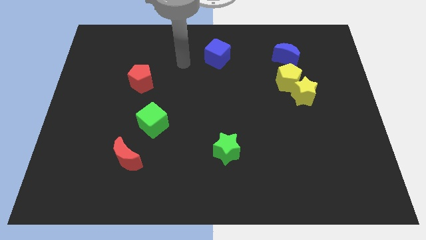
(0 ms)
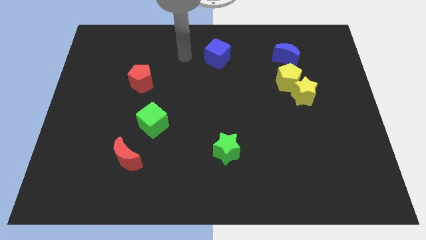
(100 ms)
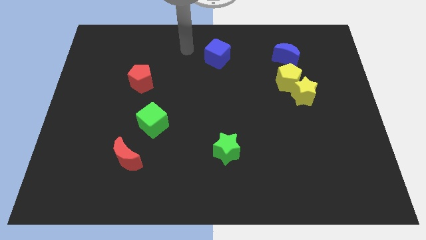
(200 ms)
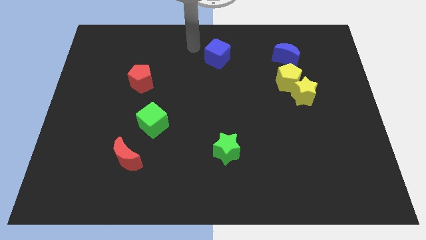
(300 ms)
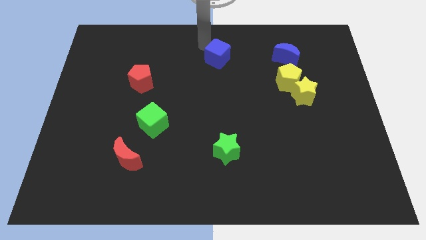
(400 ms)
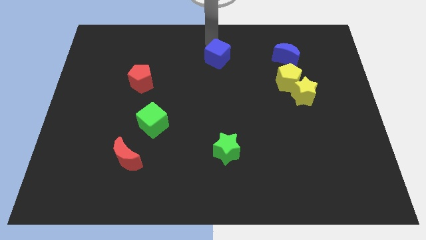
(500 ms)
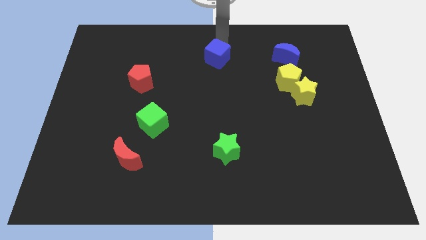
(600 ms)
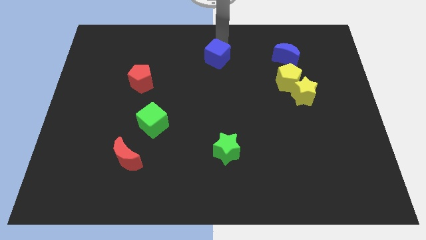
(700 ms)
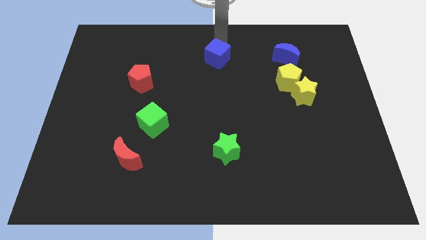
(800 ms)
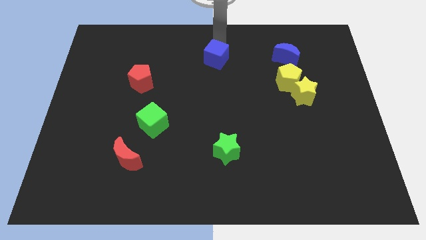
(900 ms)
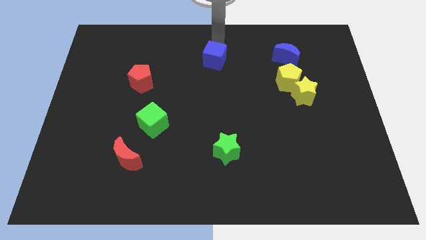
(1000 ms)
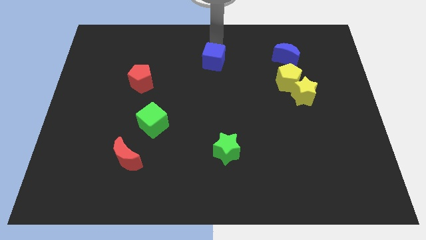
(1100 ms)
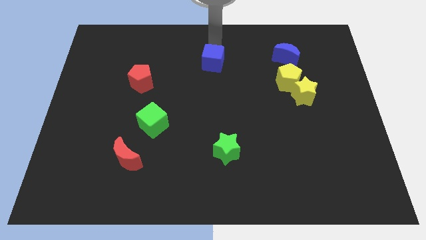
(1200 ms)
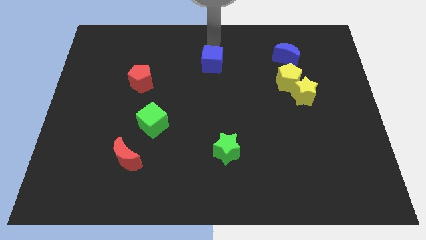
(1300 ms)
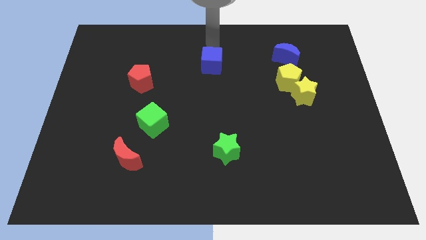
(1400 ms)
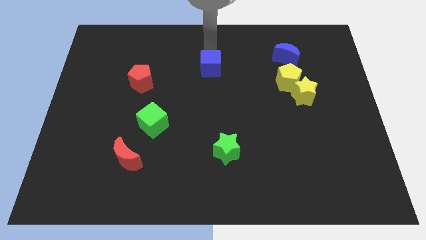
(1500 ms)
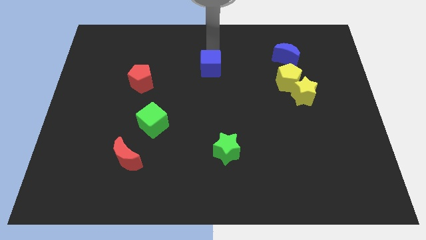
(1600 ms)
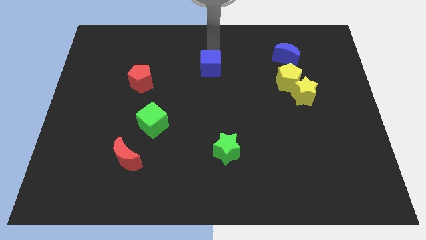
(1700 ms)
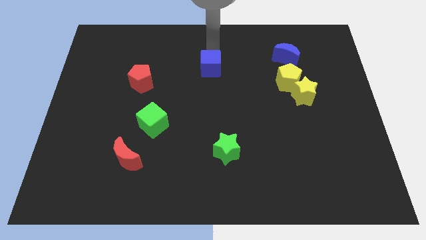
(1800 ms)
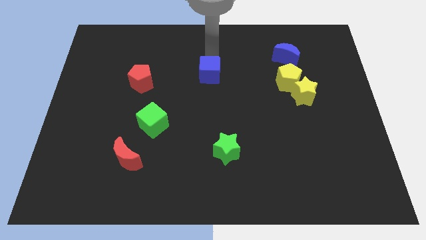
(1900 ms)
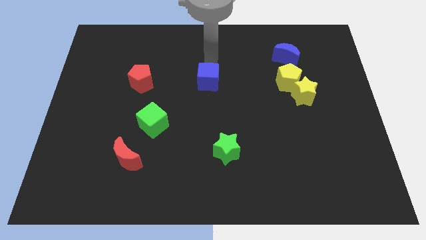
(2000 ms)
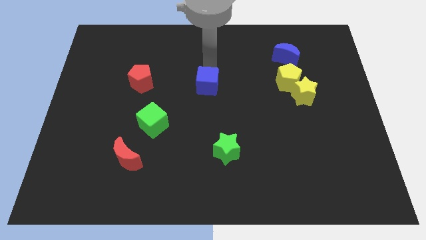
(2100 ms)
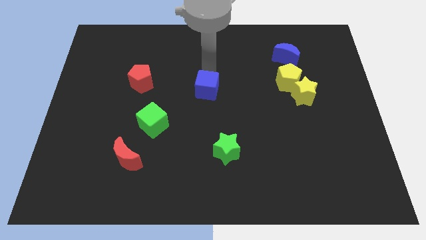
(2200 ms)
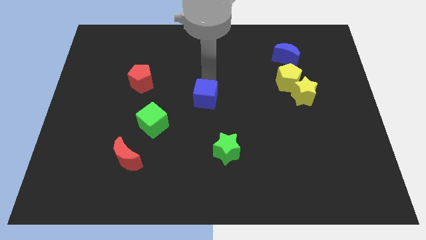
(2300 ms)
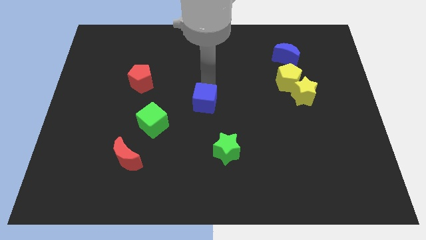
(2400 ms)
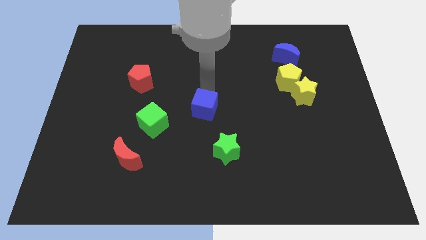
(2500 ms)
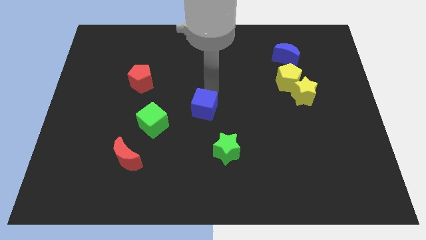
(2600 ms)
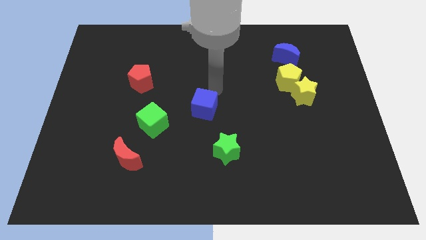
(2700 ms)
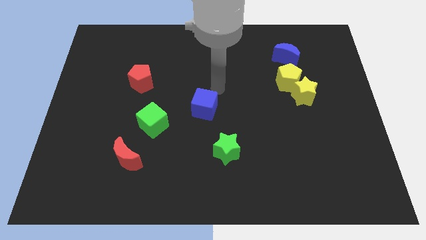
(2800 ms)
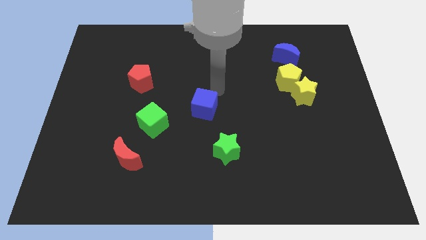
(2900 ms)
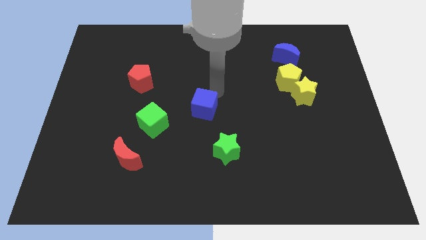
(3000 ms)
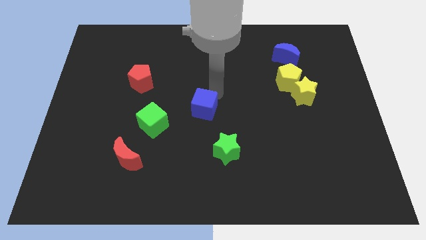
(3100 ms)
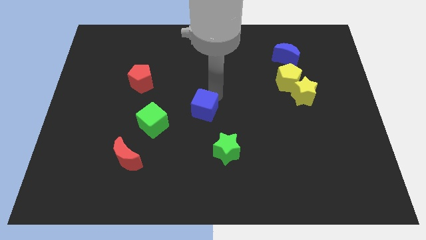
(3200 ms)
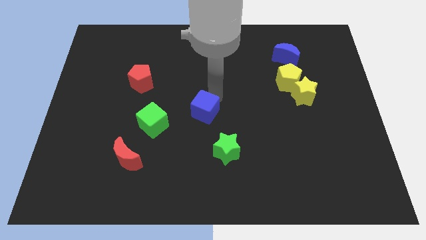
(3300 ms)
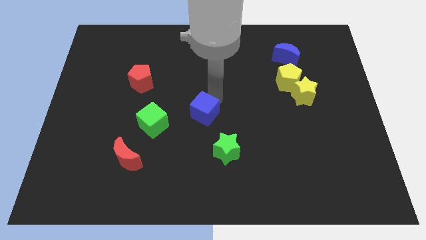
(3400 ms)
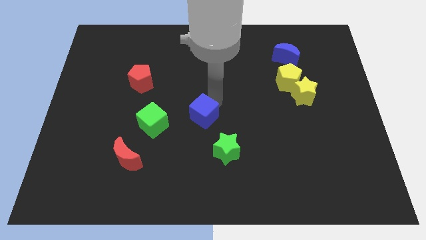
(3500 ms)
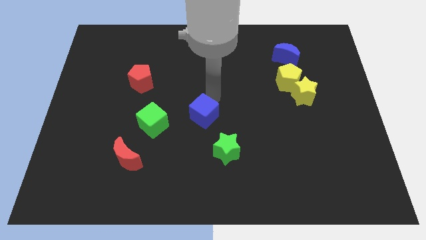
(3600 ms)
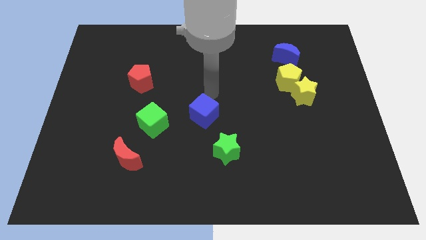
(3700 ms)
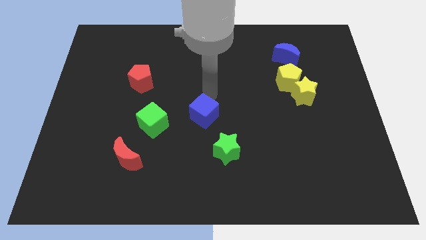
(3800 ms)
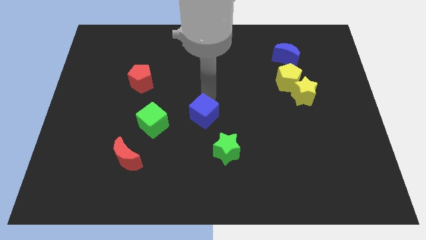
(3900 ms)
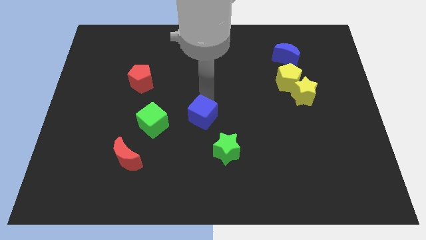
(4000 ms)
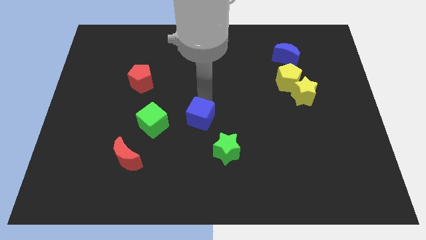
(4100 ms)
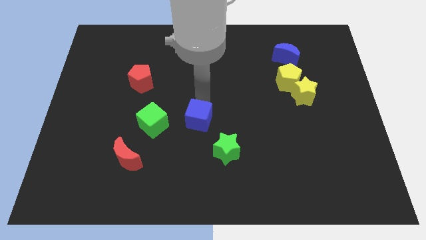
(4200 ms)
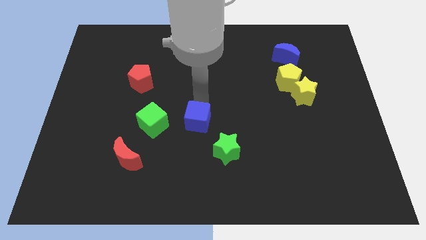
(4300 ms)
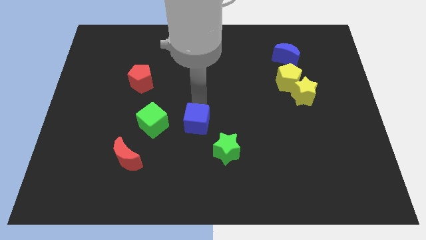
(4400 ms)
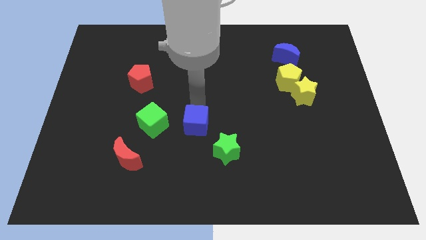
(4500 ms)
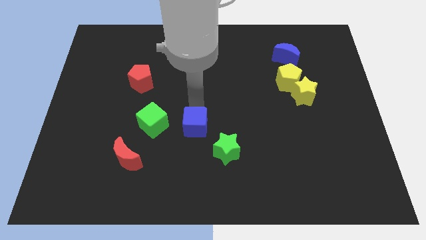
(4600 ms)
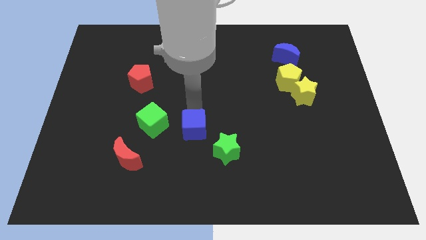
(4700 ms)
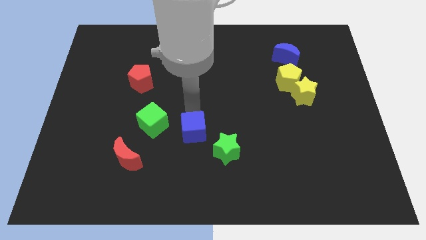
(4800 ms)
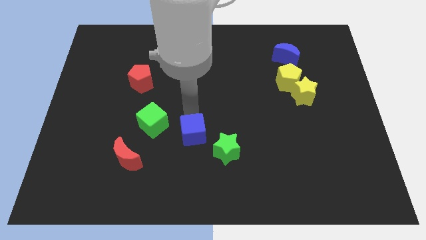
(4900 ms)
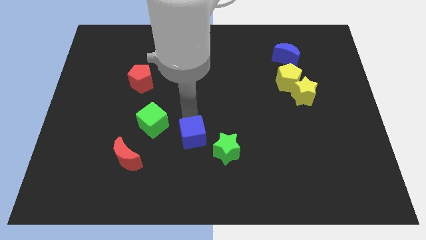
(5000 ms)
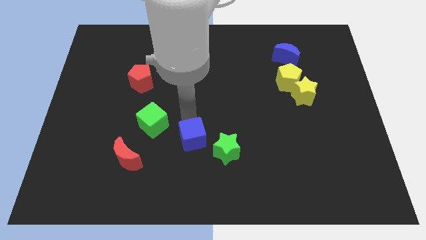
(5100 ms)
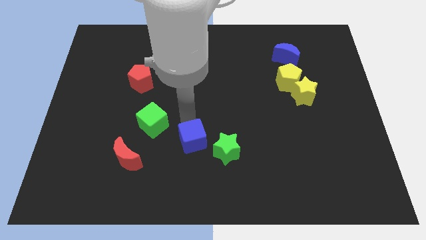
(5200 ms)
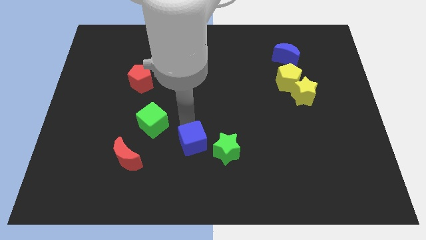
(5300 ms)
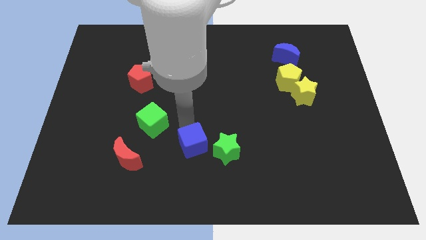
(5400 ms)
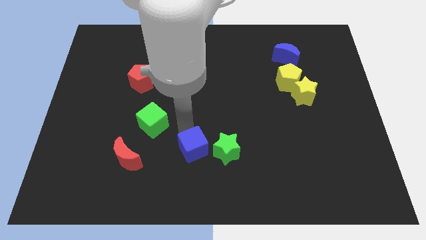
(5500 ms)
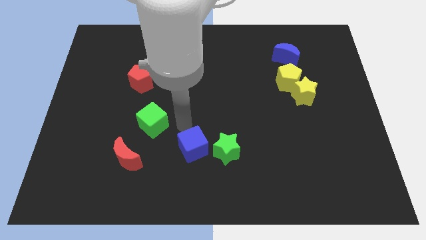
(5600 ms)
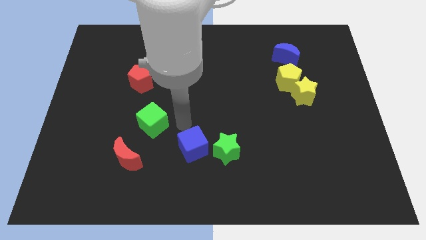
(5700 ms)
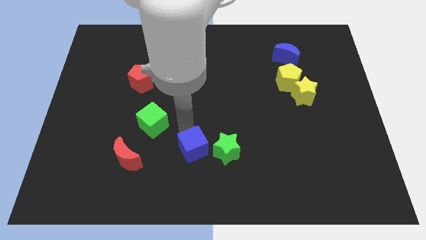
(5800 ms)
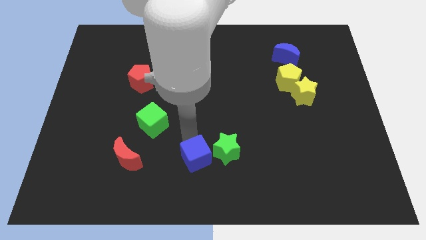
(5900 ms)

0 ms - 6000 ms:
push the blue cube to the bottom side

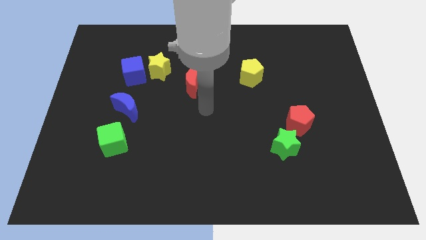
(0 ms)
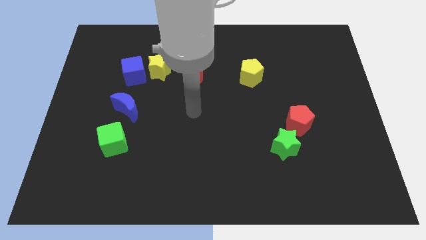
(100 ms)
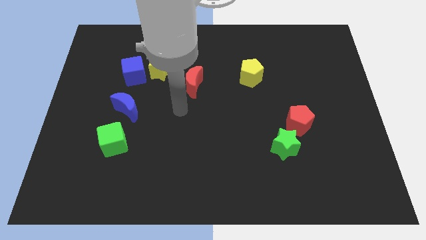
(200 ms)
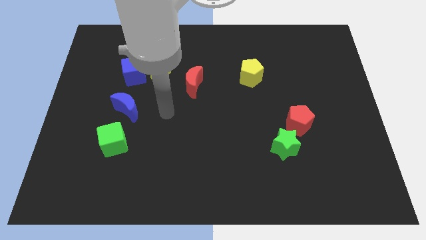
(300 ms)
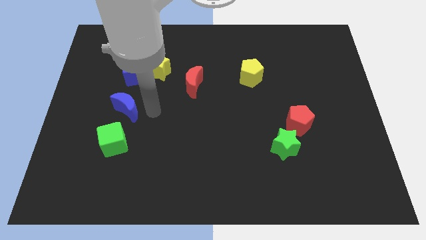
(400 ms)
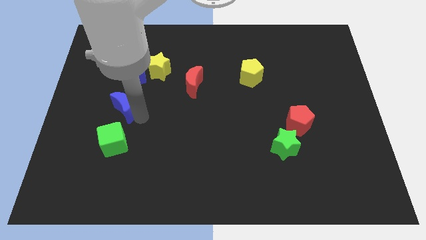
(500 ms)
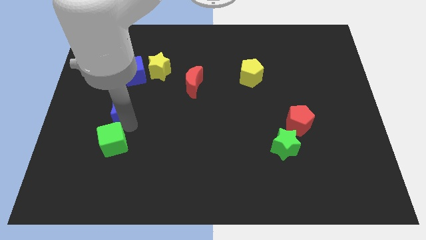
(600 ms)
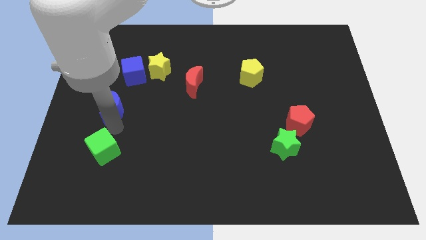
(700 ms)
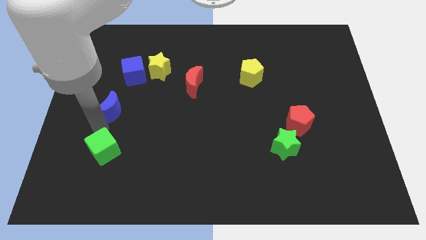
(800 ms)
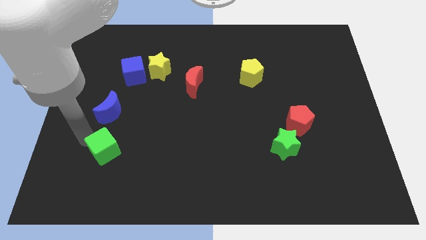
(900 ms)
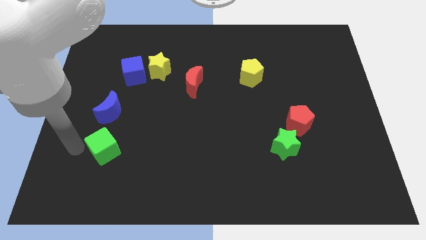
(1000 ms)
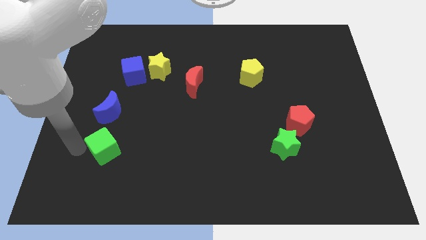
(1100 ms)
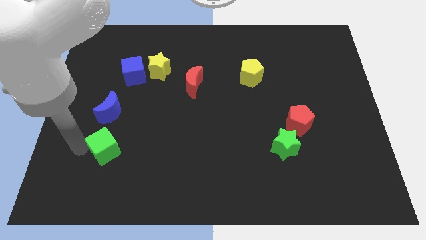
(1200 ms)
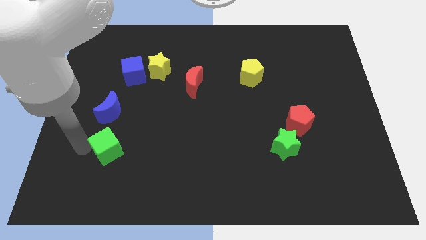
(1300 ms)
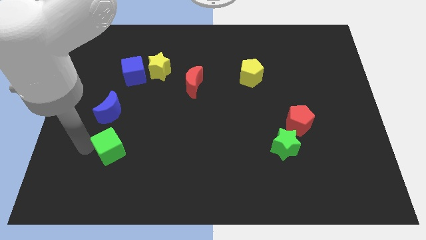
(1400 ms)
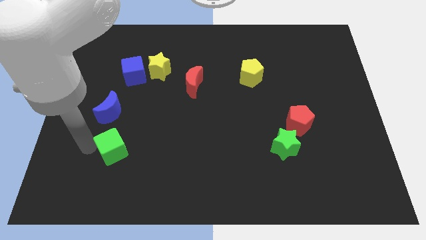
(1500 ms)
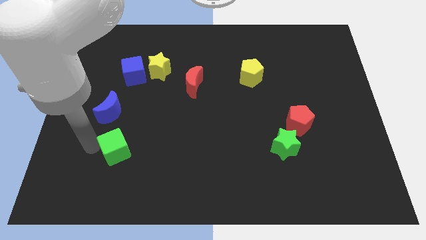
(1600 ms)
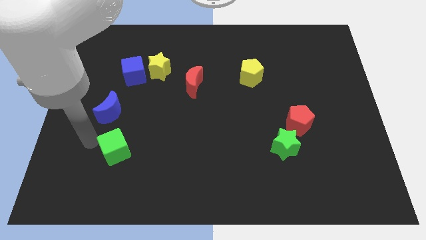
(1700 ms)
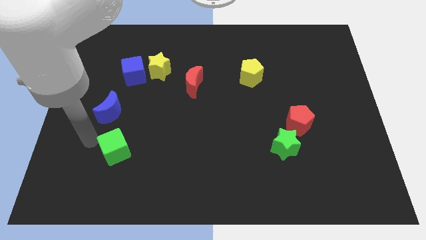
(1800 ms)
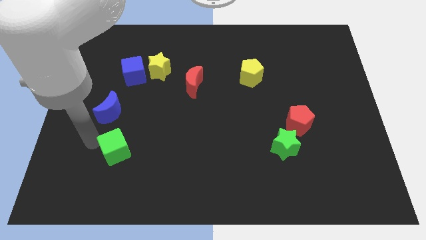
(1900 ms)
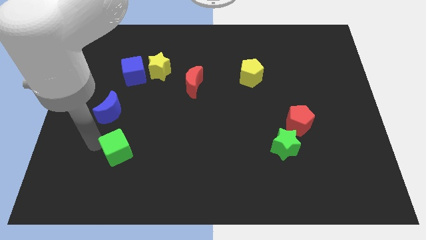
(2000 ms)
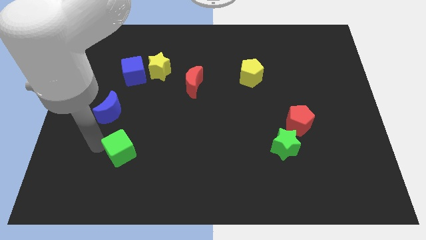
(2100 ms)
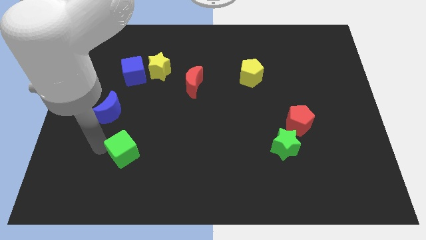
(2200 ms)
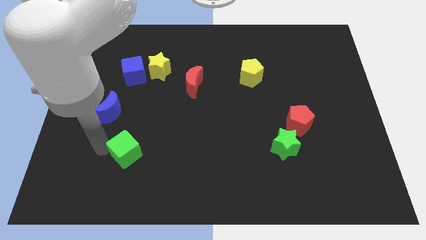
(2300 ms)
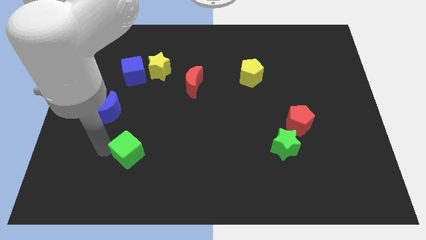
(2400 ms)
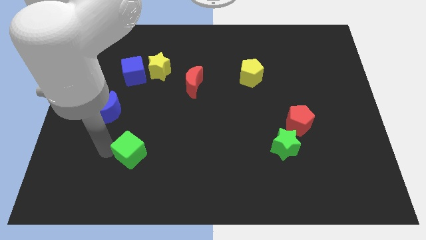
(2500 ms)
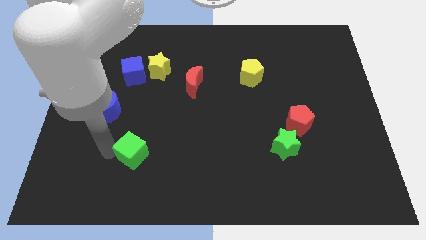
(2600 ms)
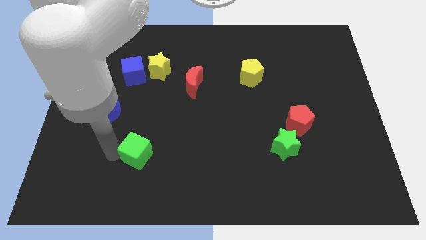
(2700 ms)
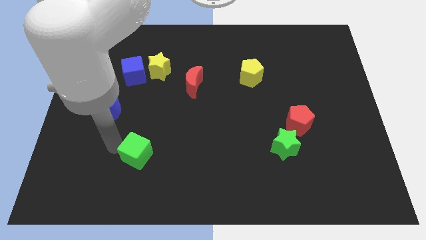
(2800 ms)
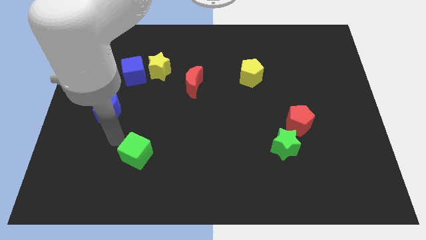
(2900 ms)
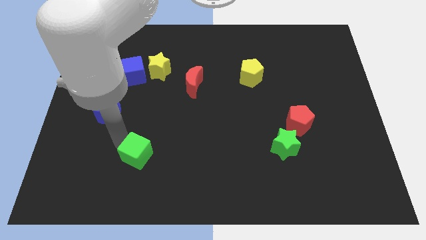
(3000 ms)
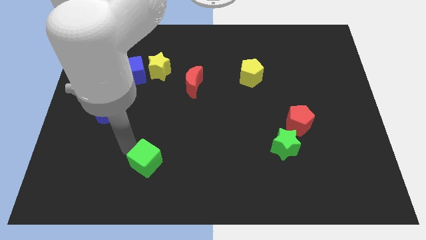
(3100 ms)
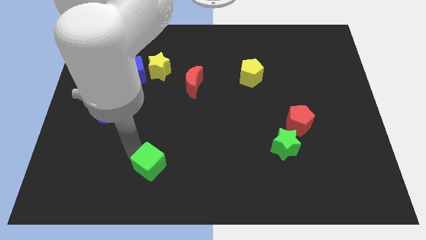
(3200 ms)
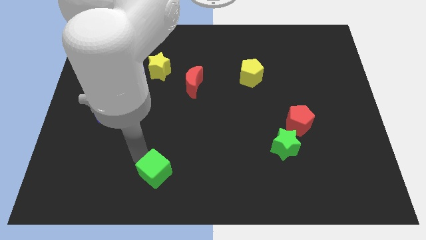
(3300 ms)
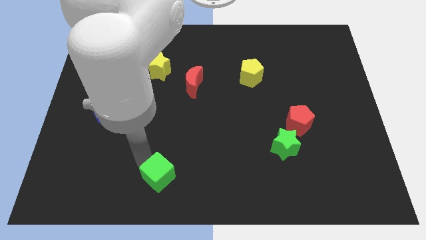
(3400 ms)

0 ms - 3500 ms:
move the green cube to the bottom
